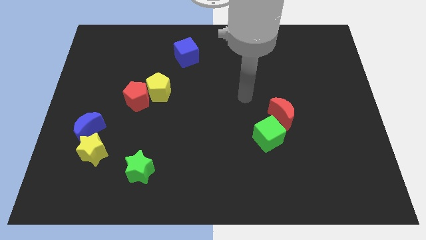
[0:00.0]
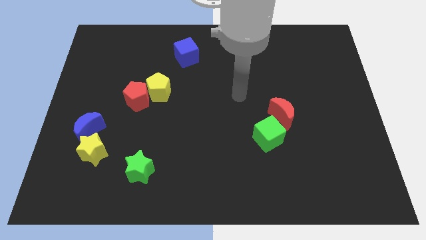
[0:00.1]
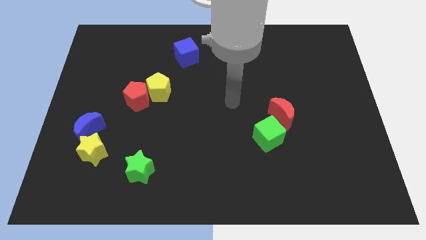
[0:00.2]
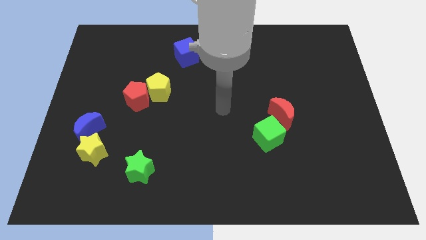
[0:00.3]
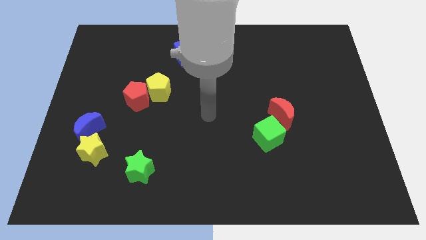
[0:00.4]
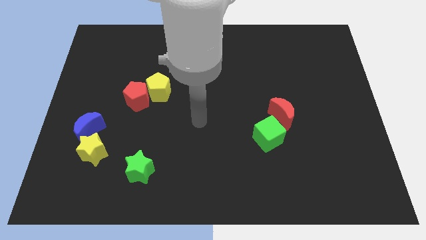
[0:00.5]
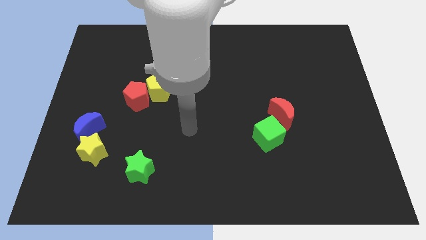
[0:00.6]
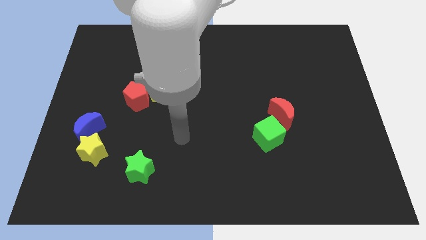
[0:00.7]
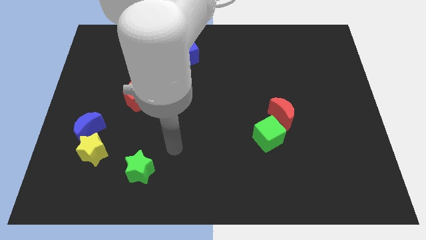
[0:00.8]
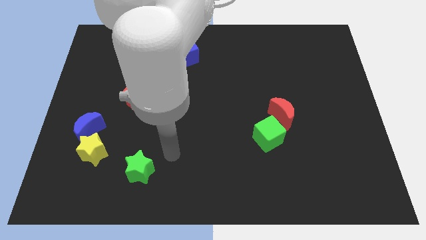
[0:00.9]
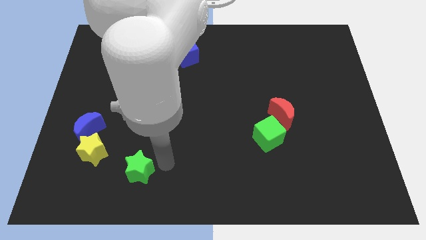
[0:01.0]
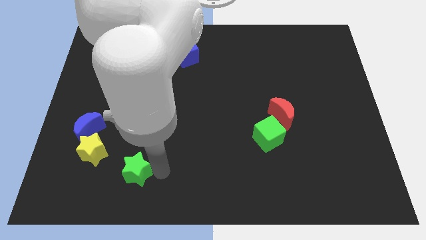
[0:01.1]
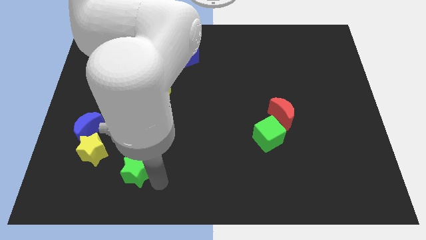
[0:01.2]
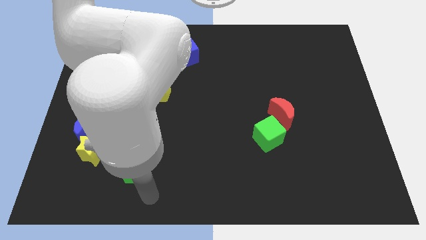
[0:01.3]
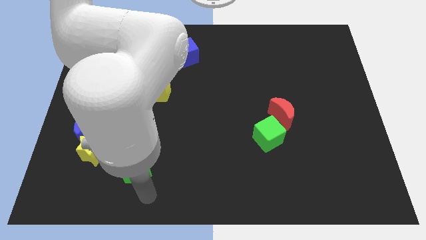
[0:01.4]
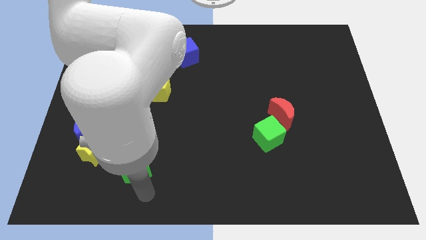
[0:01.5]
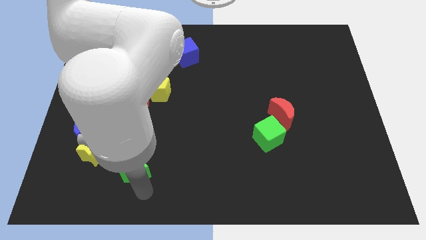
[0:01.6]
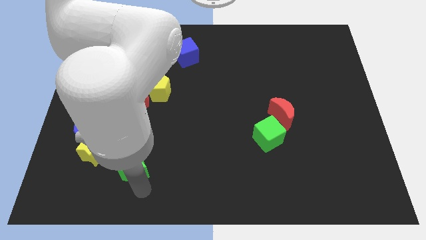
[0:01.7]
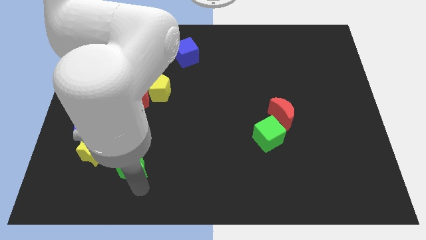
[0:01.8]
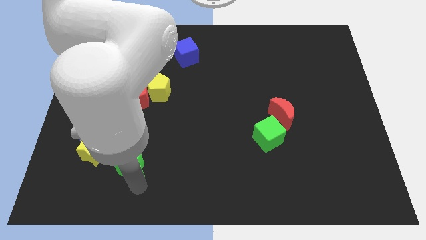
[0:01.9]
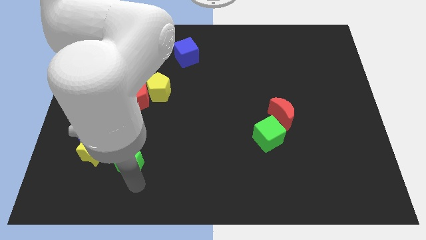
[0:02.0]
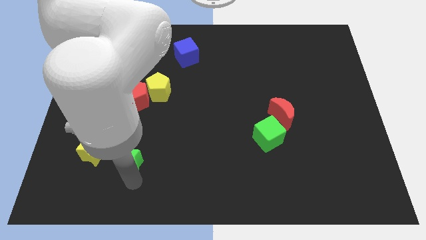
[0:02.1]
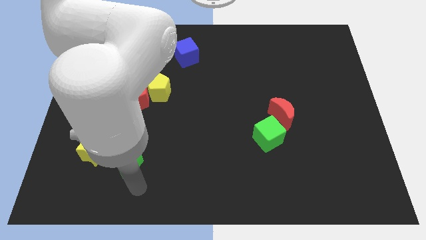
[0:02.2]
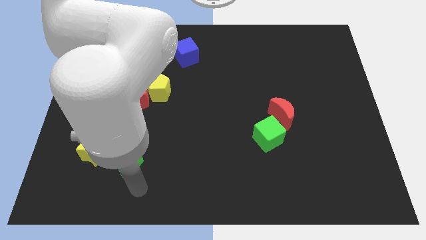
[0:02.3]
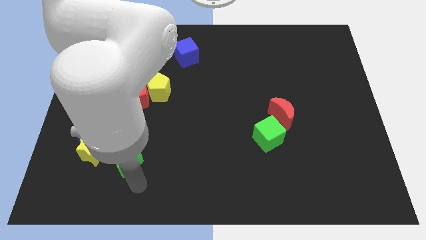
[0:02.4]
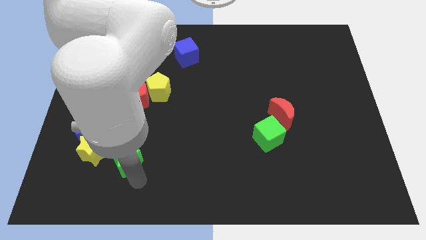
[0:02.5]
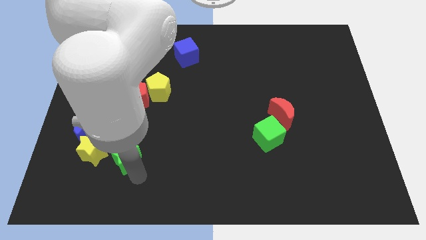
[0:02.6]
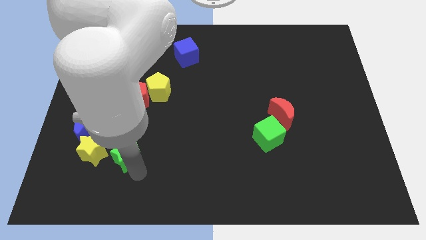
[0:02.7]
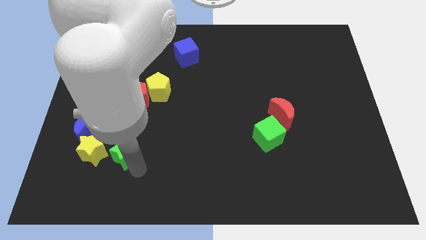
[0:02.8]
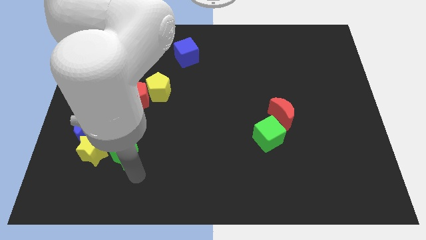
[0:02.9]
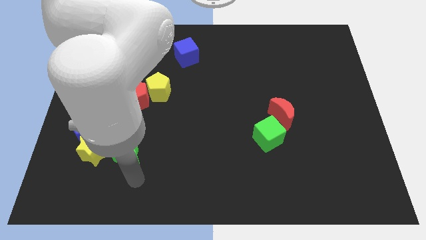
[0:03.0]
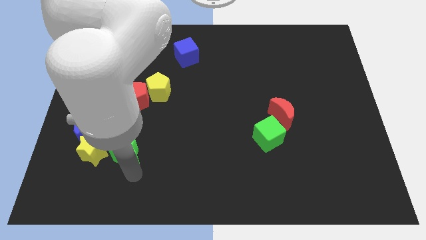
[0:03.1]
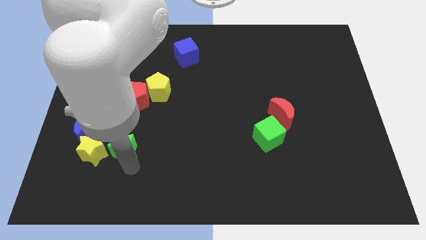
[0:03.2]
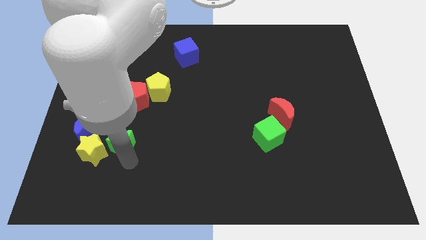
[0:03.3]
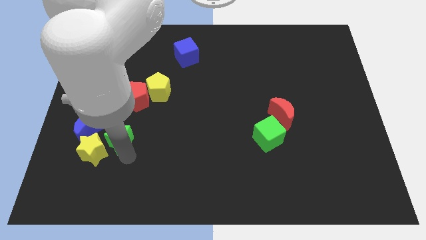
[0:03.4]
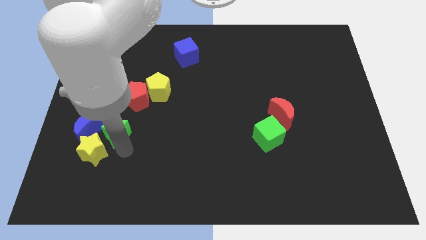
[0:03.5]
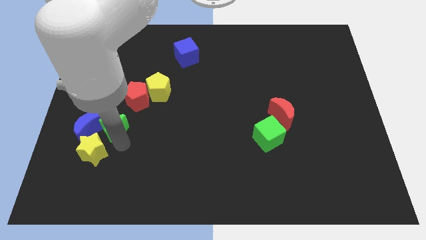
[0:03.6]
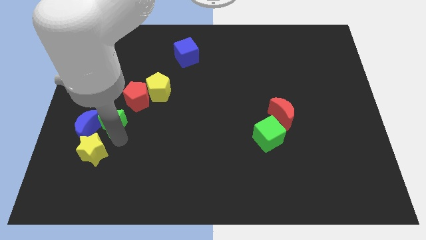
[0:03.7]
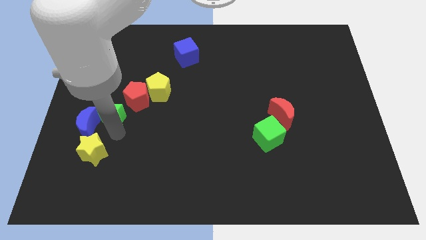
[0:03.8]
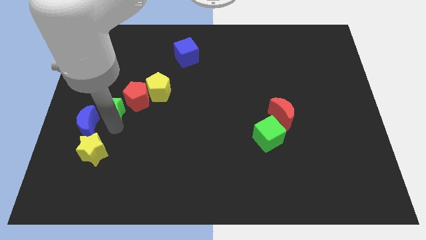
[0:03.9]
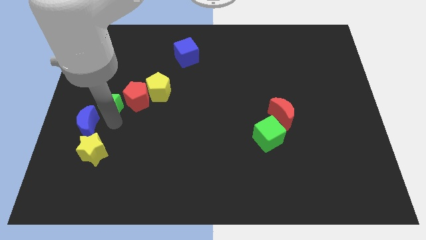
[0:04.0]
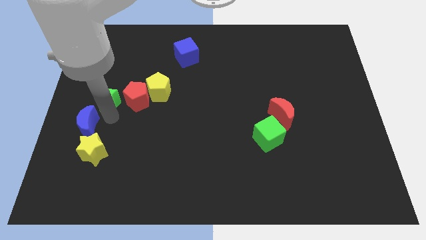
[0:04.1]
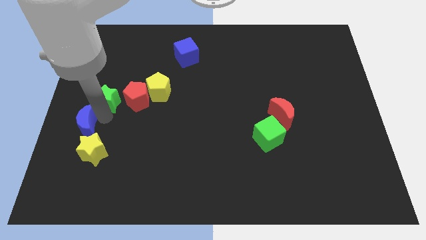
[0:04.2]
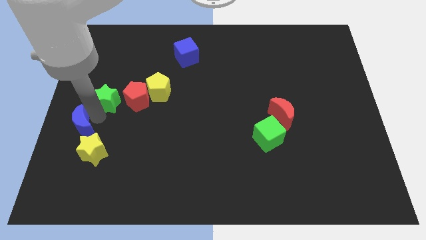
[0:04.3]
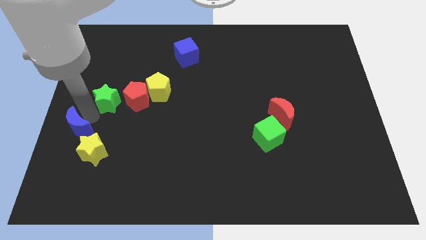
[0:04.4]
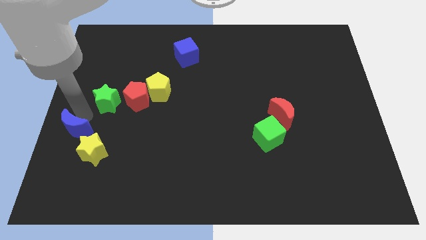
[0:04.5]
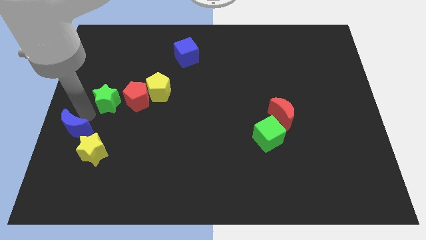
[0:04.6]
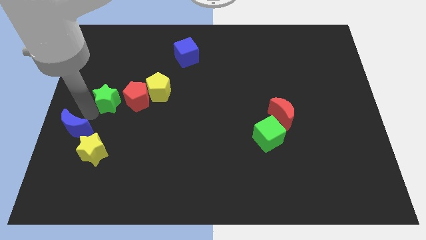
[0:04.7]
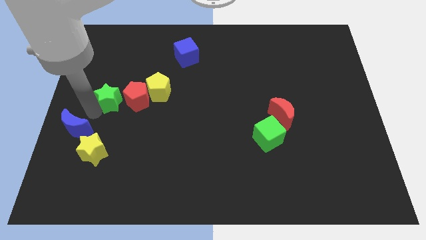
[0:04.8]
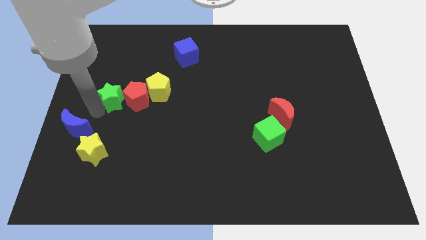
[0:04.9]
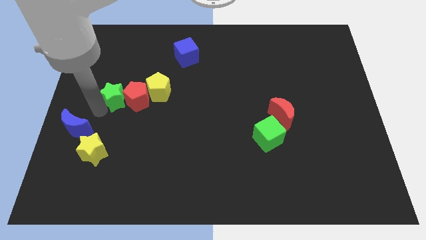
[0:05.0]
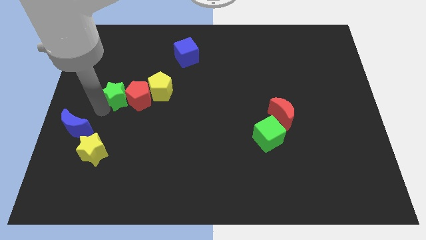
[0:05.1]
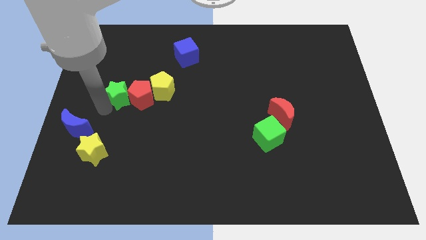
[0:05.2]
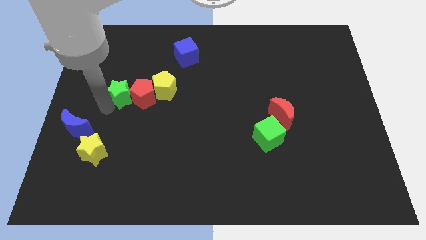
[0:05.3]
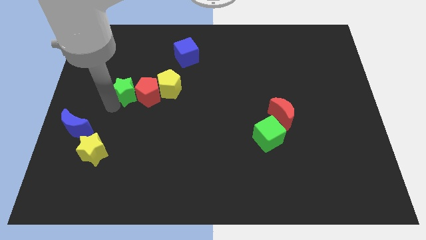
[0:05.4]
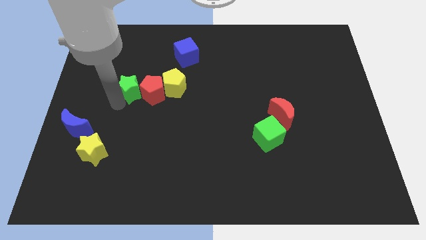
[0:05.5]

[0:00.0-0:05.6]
move the green star upwards

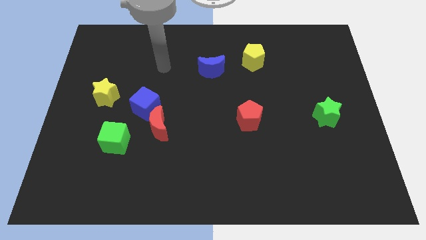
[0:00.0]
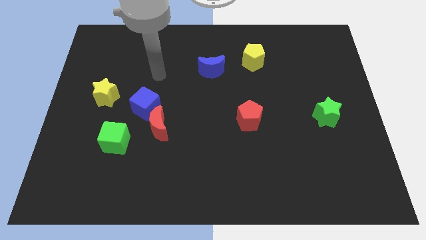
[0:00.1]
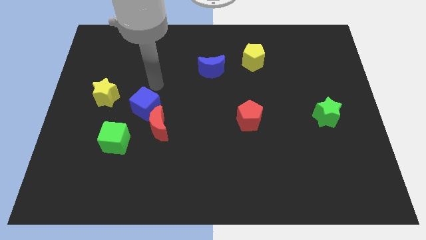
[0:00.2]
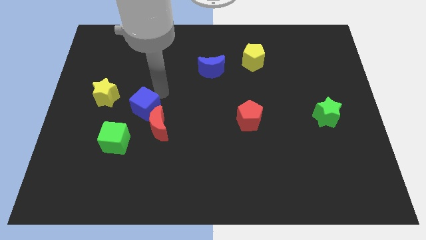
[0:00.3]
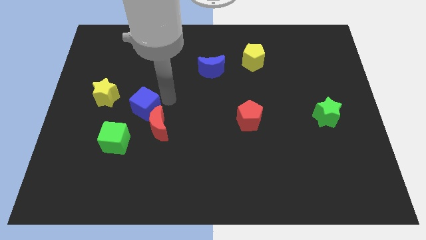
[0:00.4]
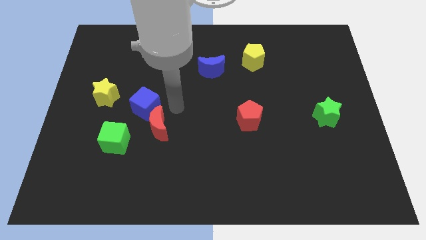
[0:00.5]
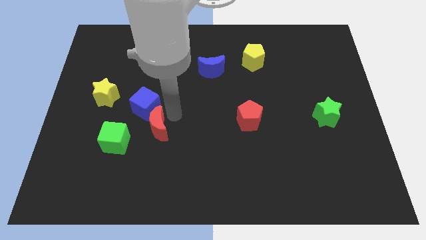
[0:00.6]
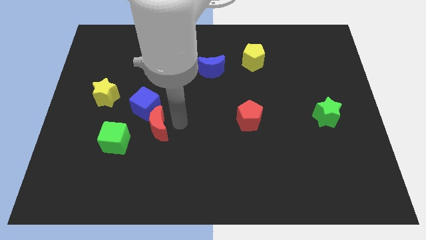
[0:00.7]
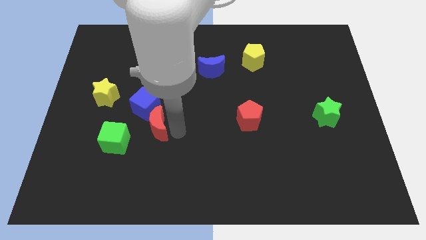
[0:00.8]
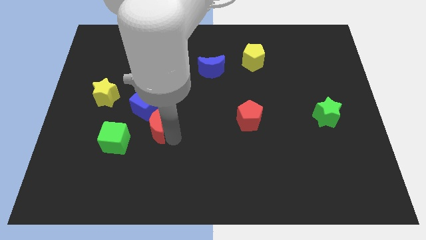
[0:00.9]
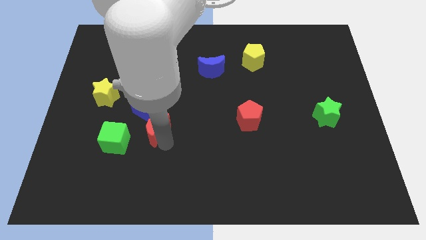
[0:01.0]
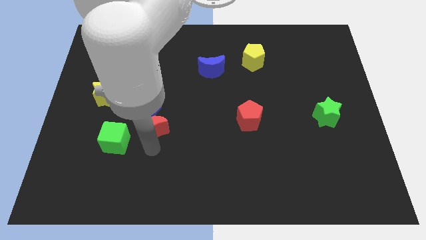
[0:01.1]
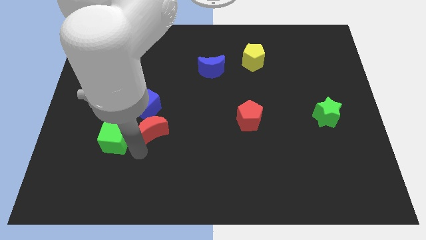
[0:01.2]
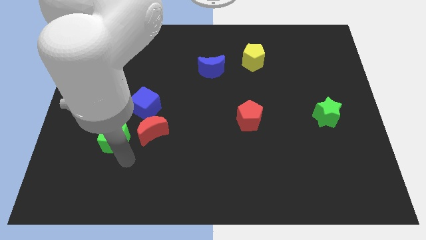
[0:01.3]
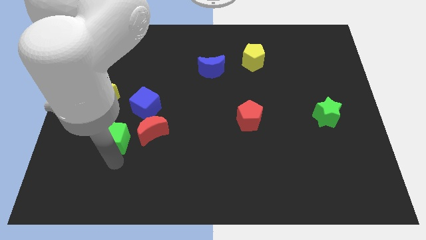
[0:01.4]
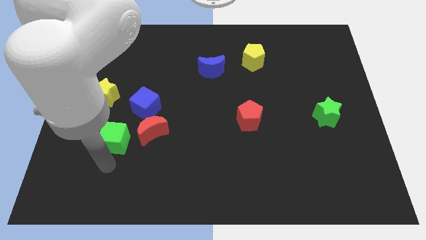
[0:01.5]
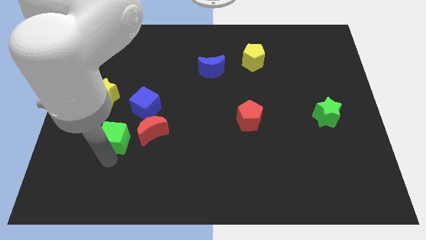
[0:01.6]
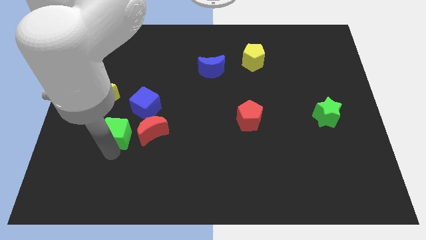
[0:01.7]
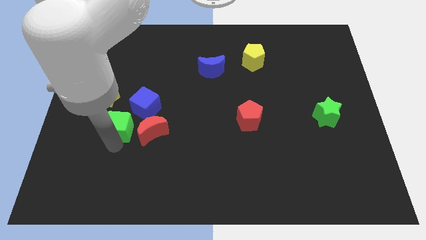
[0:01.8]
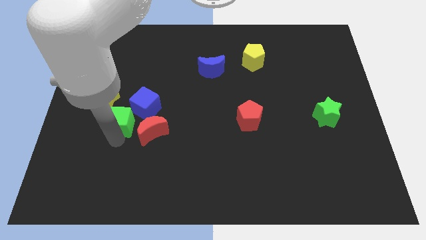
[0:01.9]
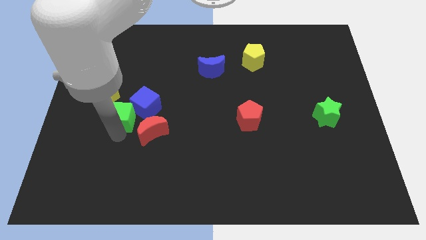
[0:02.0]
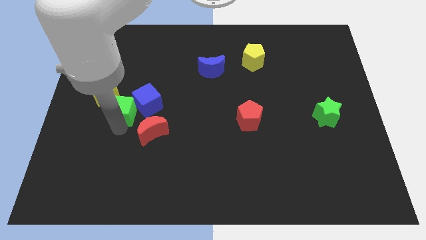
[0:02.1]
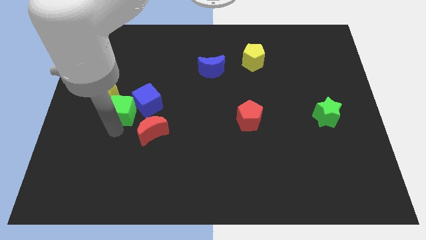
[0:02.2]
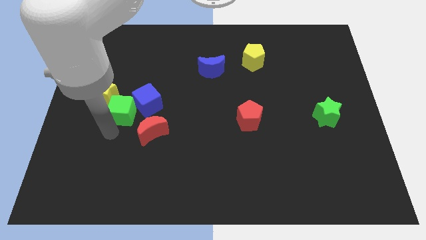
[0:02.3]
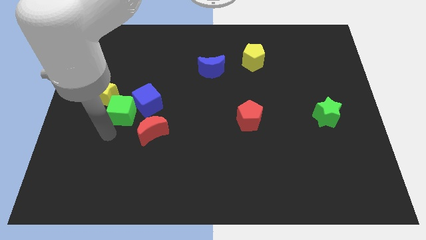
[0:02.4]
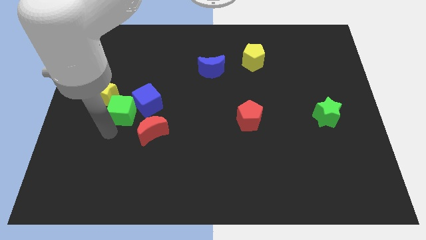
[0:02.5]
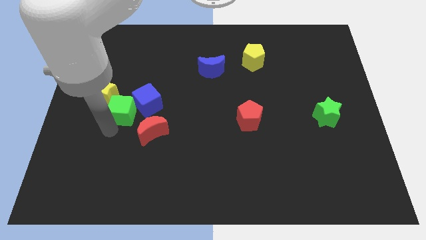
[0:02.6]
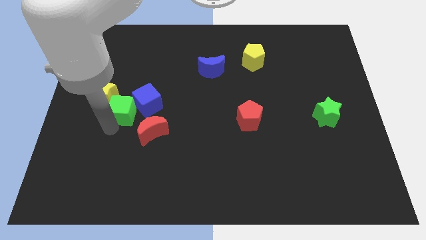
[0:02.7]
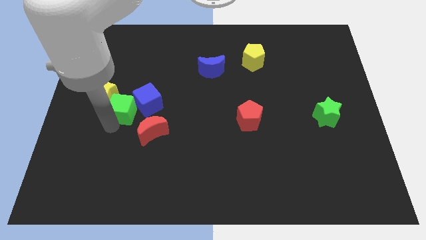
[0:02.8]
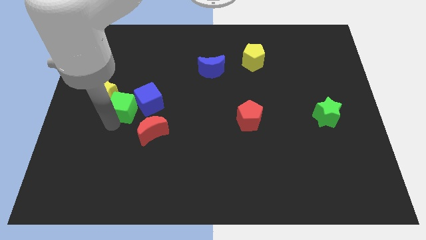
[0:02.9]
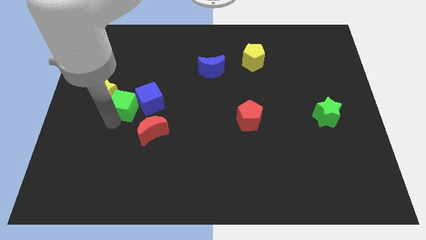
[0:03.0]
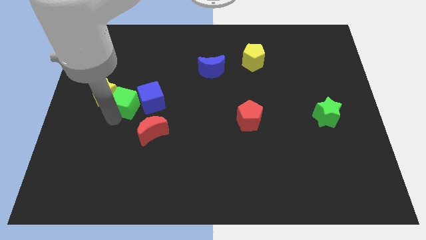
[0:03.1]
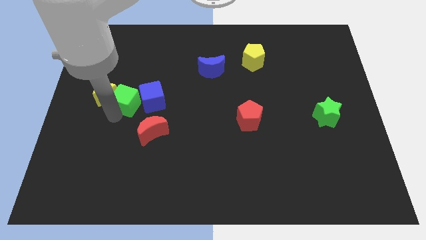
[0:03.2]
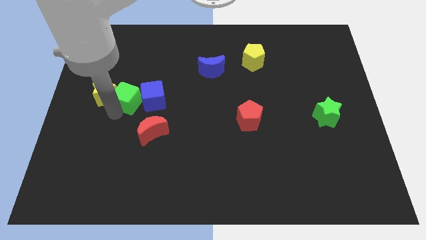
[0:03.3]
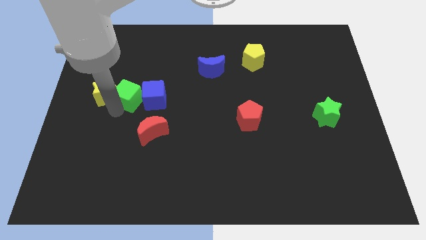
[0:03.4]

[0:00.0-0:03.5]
slide the green cube a little up and to the right
